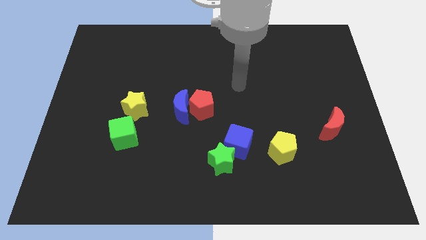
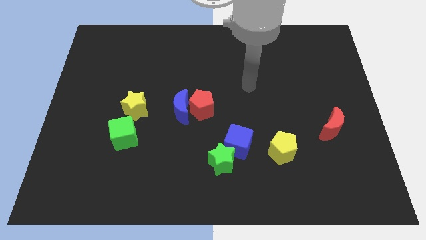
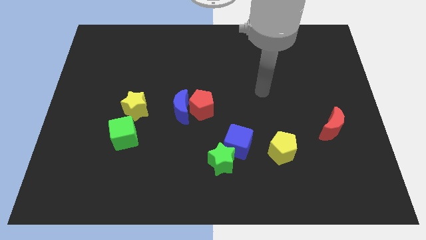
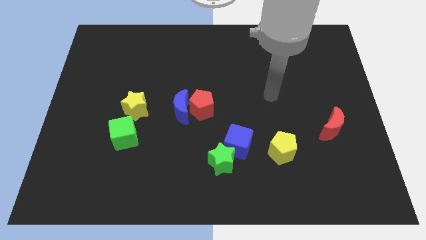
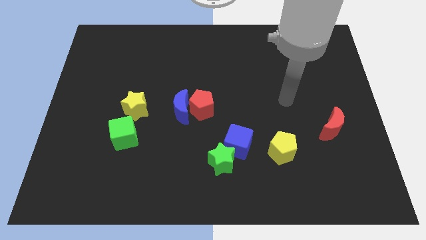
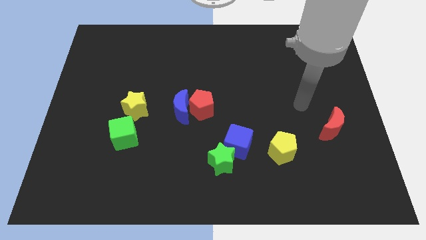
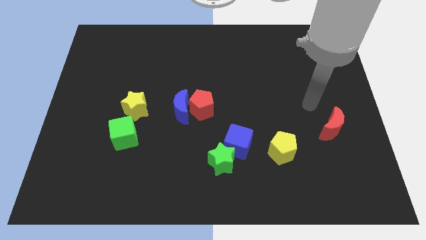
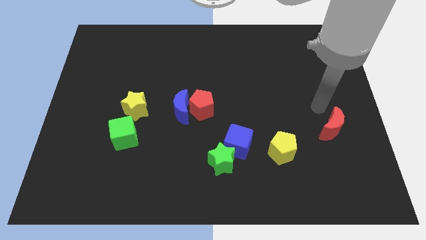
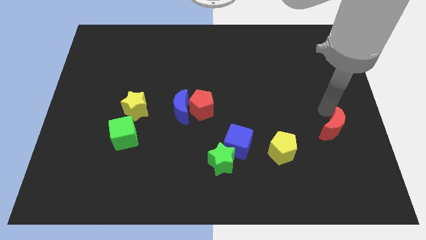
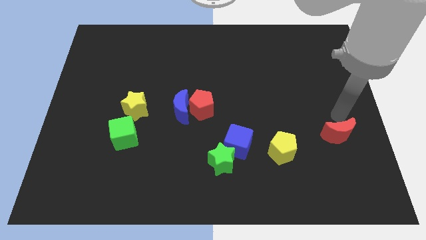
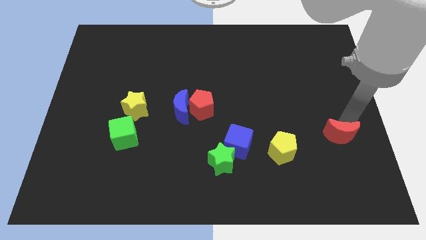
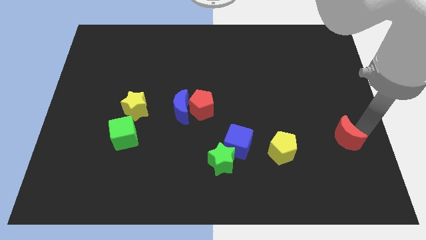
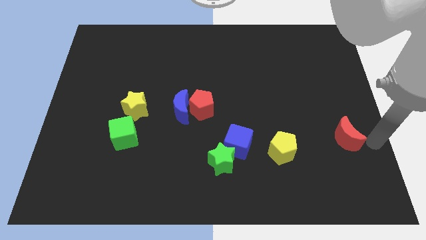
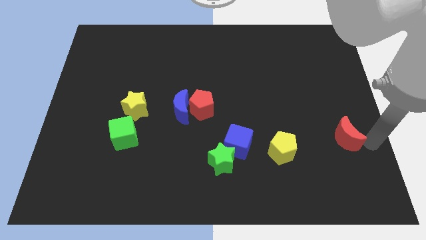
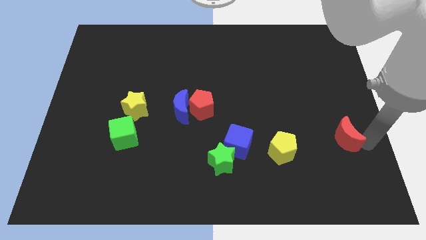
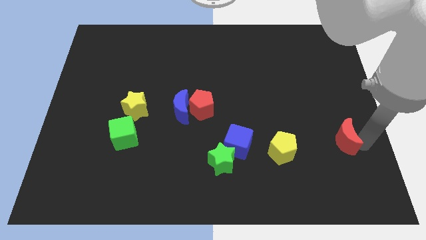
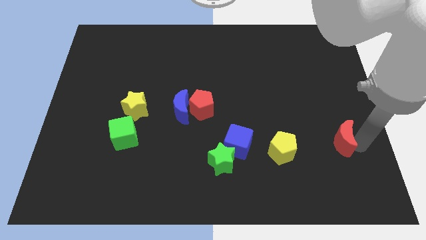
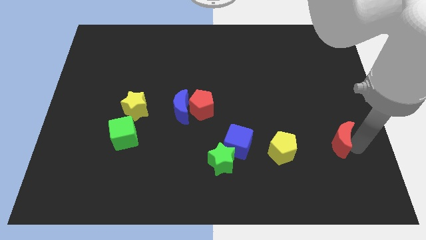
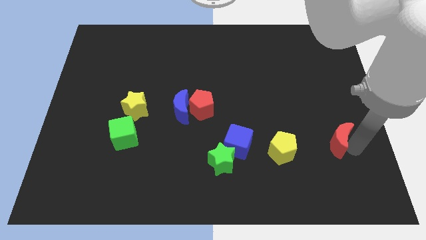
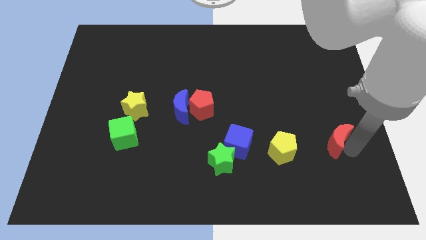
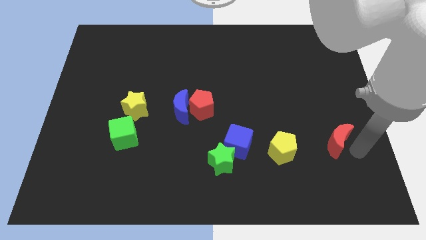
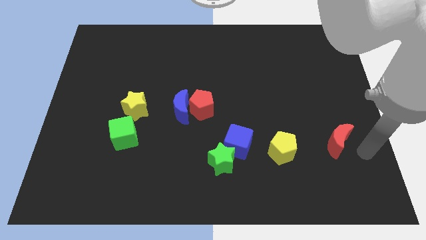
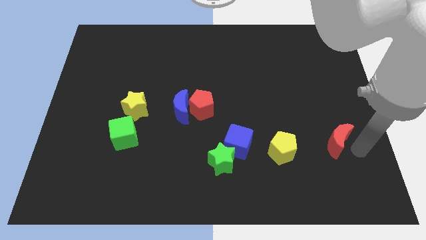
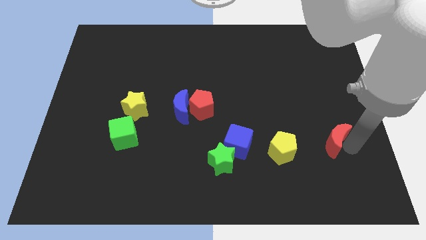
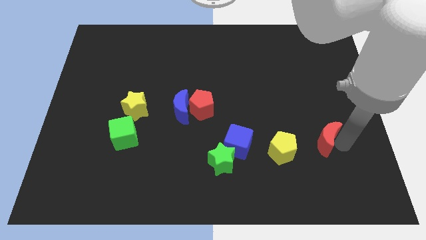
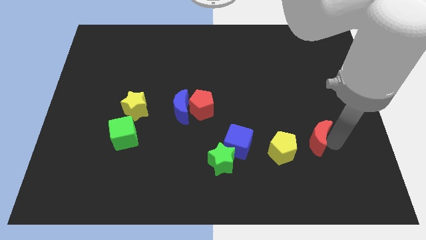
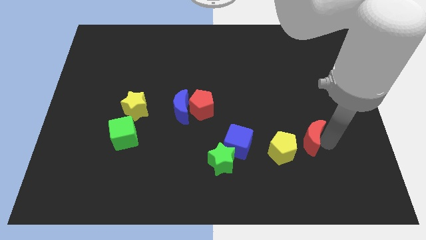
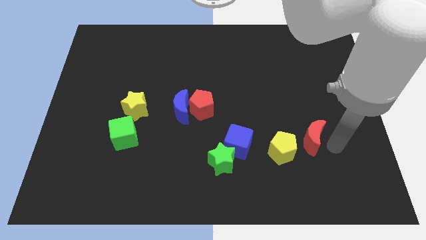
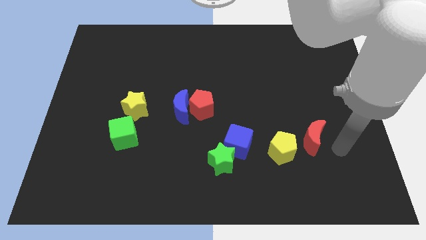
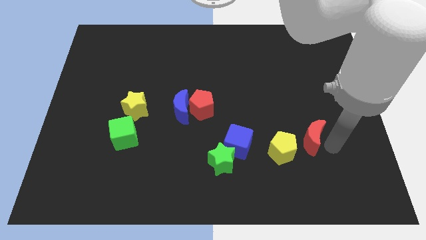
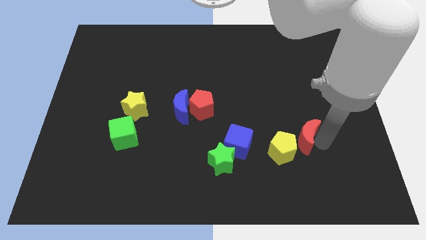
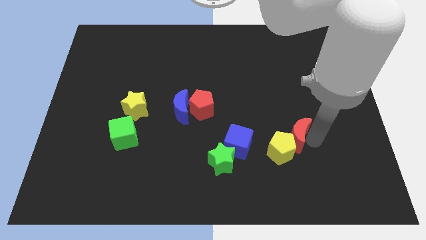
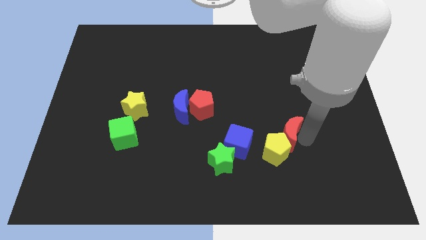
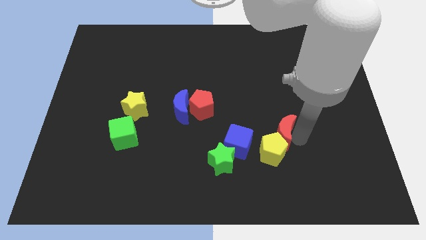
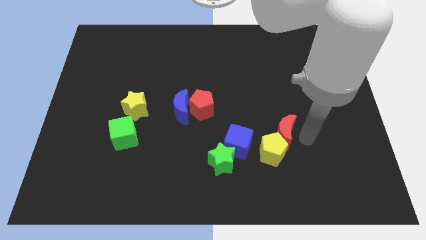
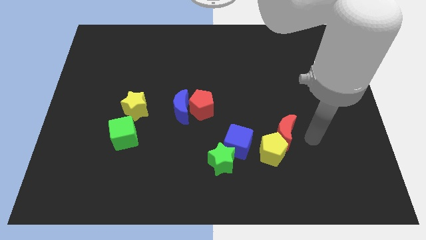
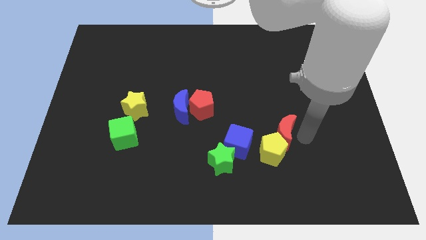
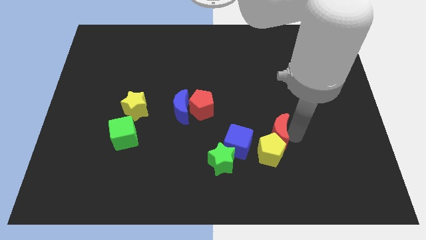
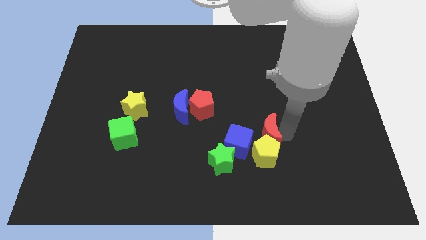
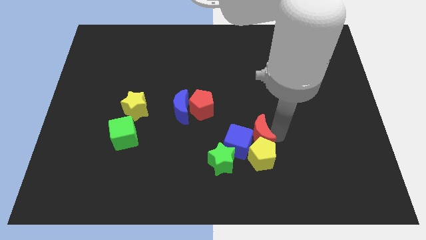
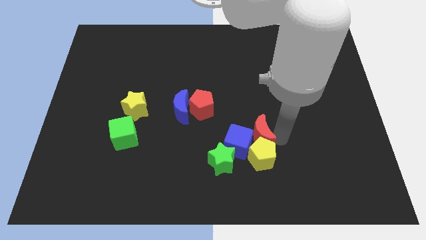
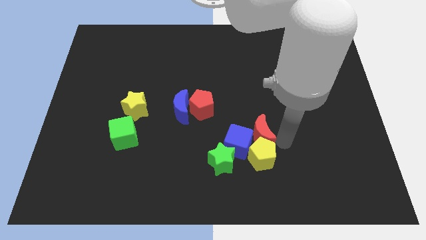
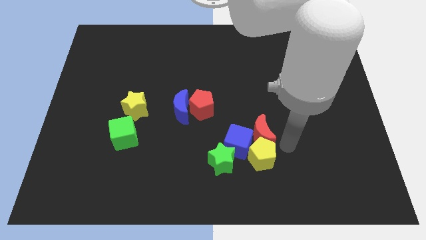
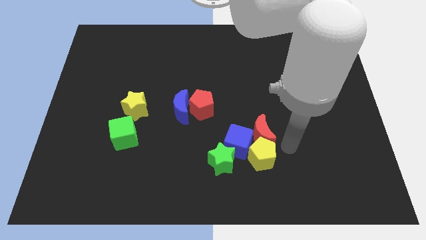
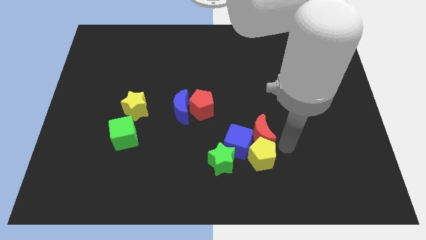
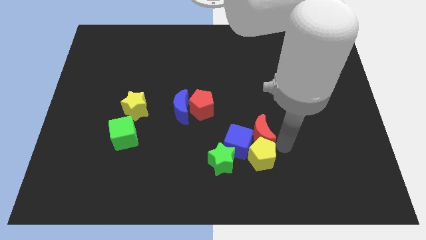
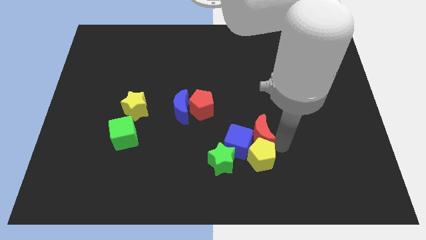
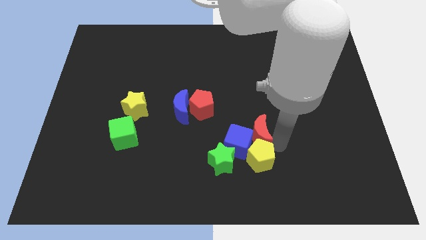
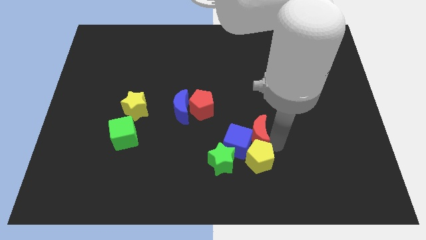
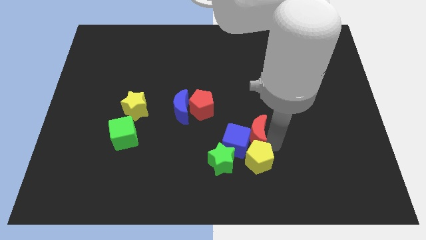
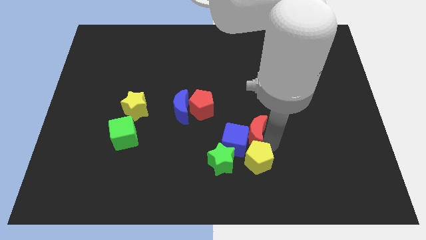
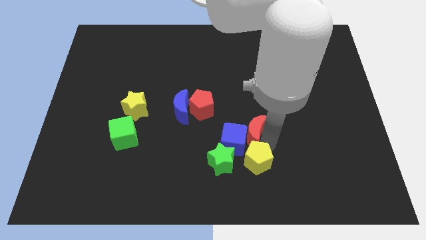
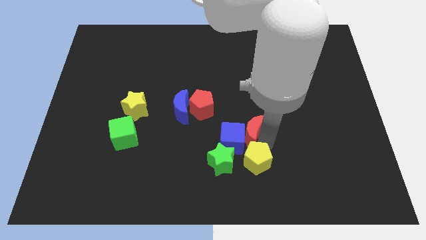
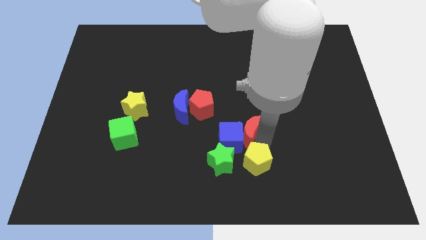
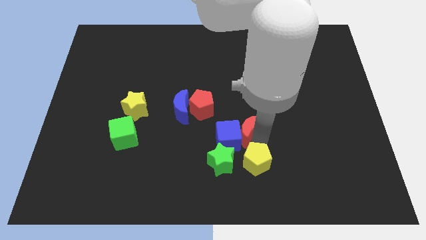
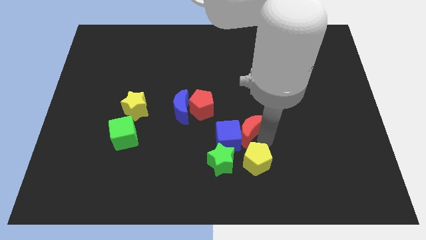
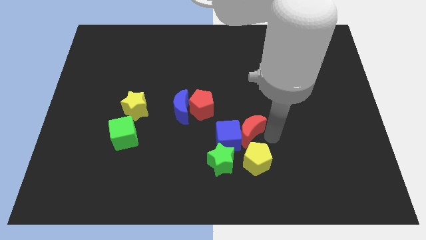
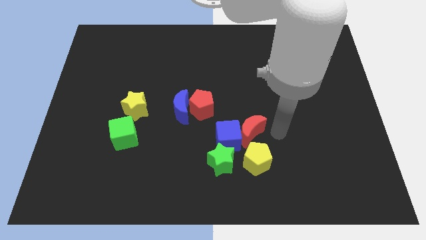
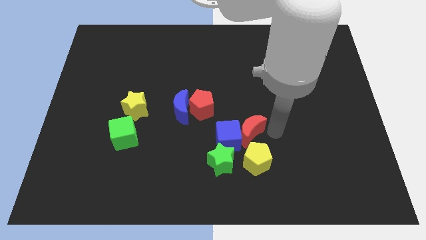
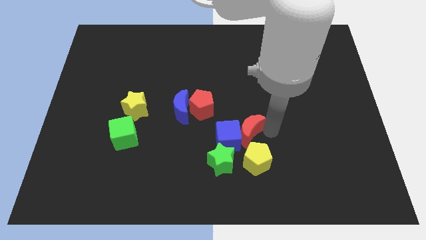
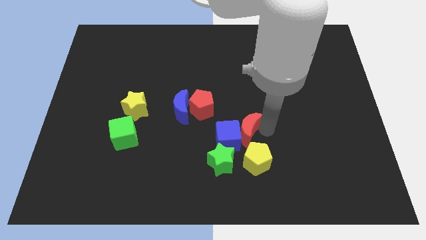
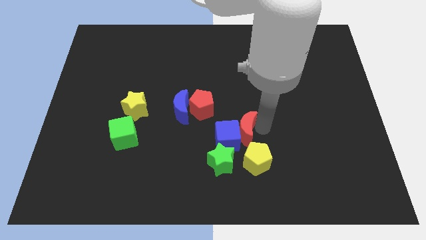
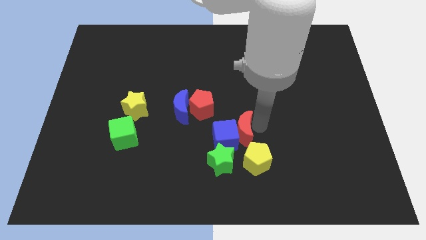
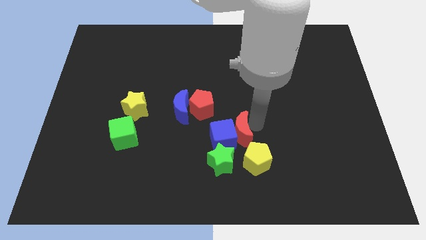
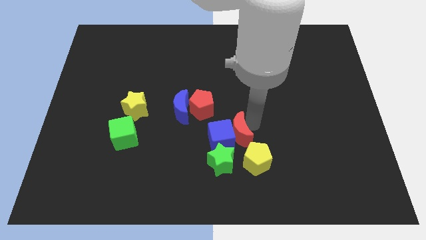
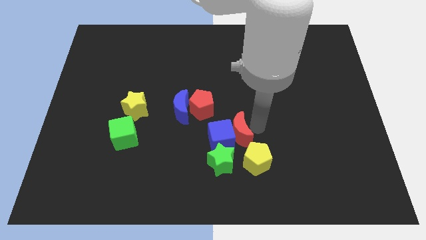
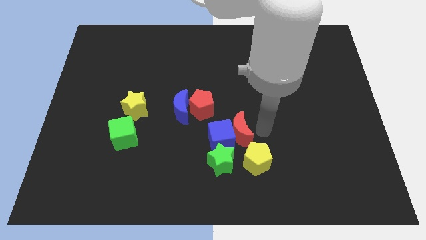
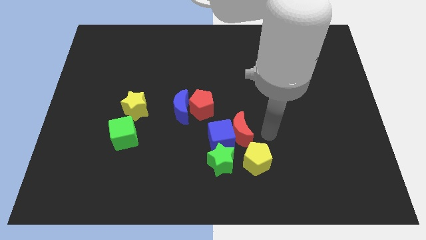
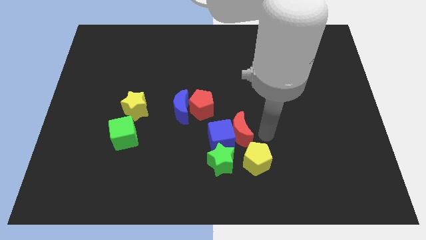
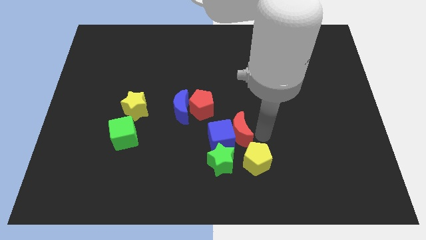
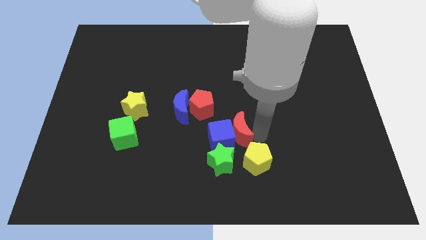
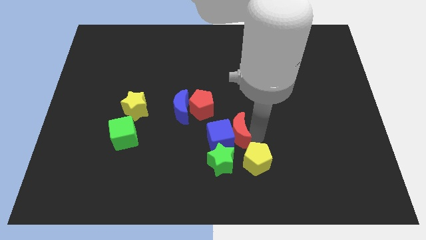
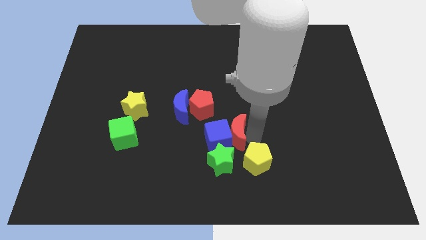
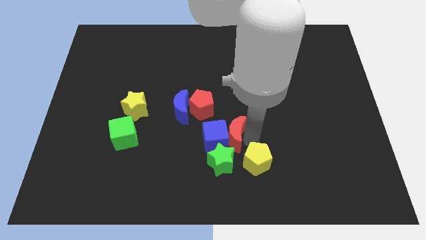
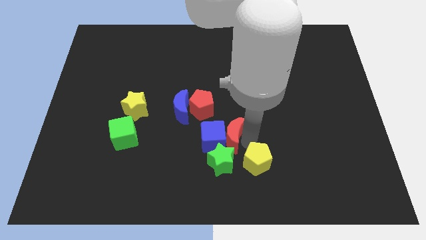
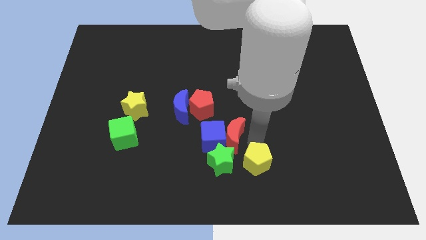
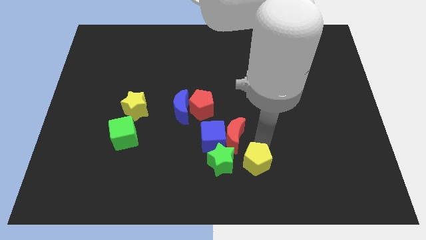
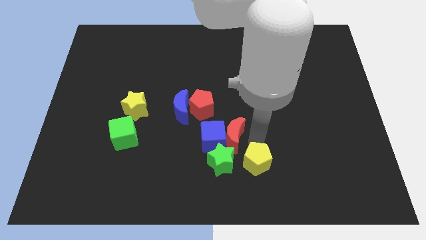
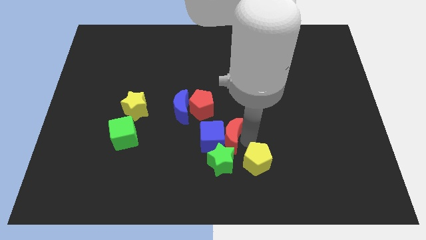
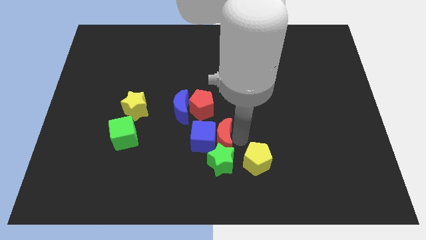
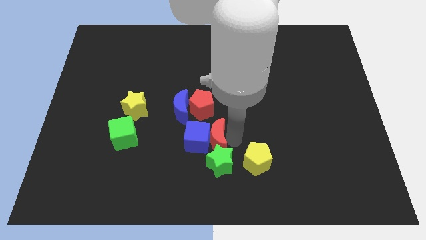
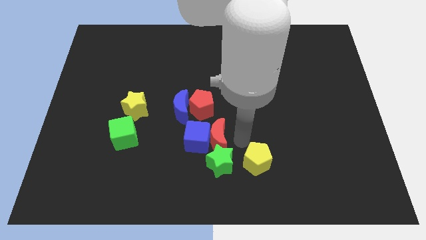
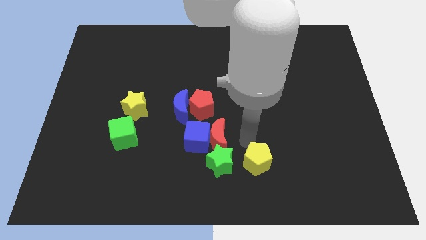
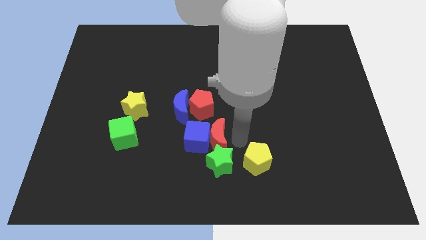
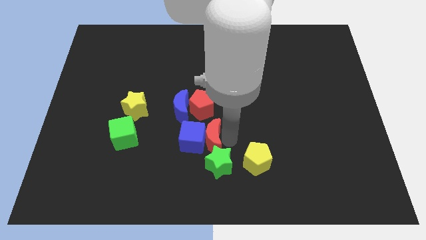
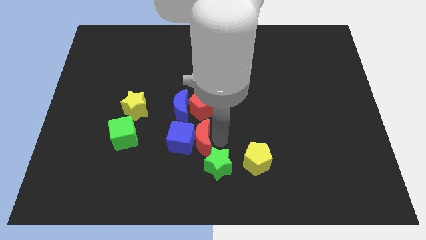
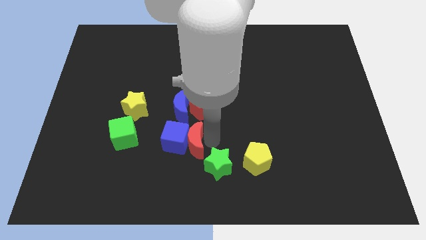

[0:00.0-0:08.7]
slide the red moon to the right of the green cube
